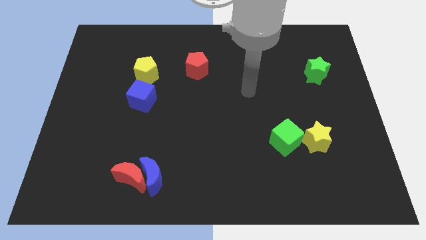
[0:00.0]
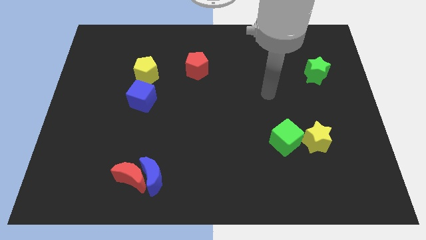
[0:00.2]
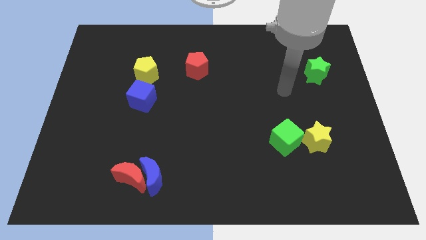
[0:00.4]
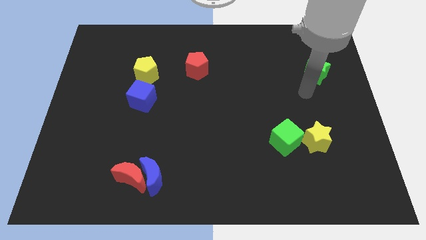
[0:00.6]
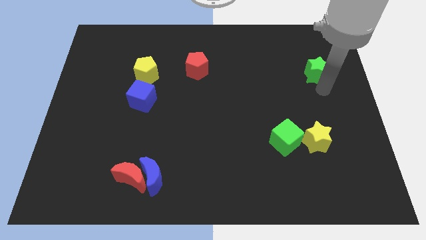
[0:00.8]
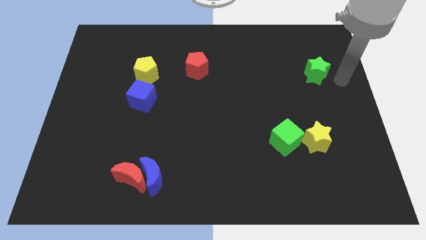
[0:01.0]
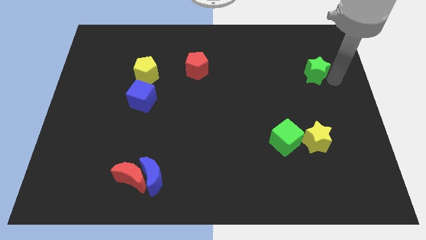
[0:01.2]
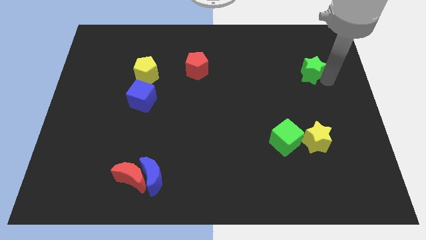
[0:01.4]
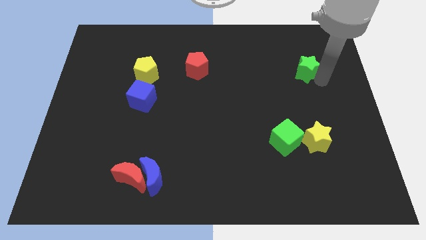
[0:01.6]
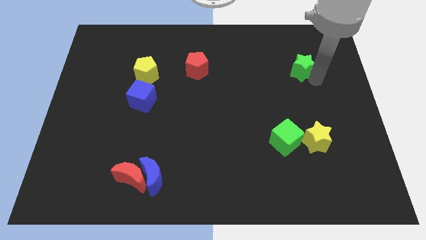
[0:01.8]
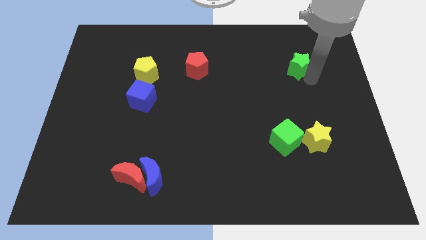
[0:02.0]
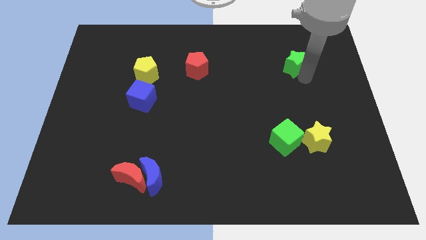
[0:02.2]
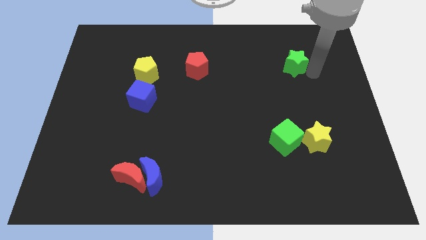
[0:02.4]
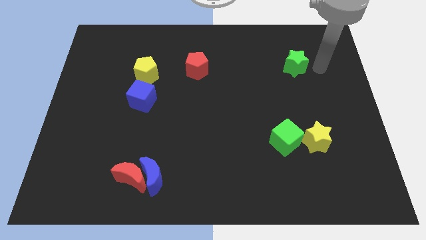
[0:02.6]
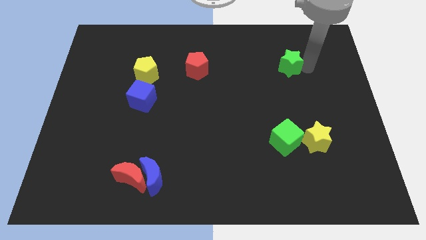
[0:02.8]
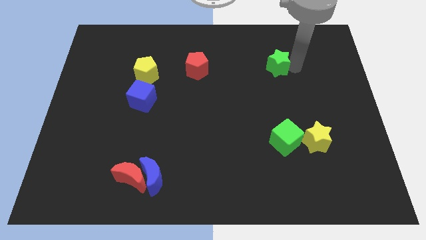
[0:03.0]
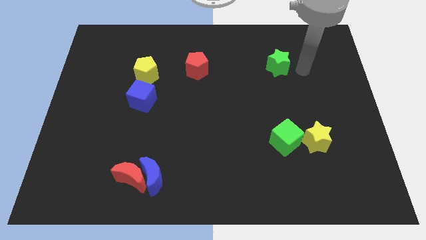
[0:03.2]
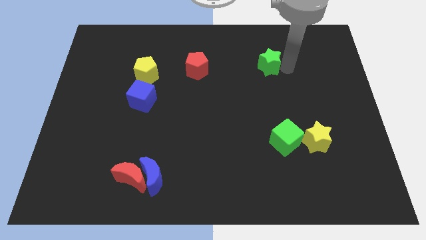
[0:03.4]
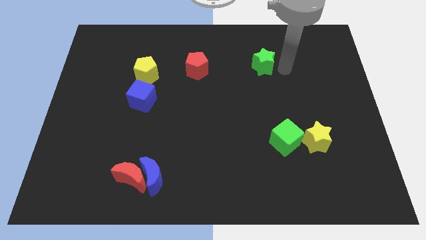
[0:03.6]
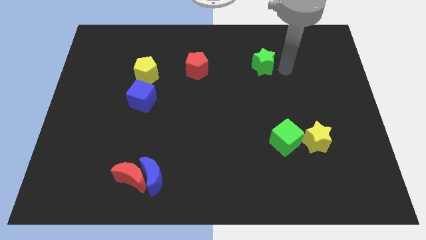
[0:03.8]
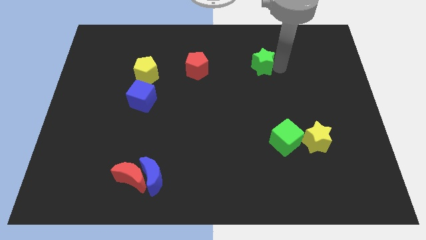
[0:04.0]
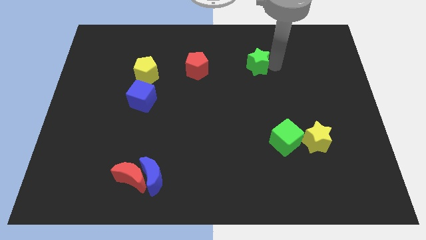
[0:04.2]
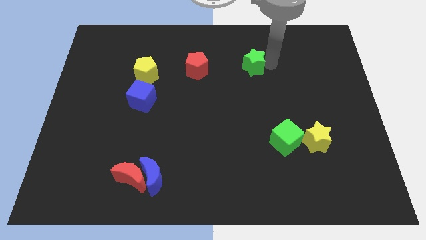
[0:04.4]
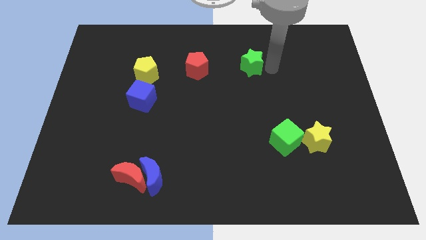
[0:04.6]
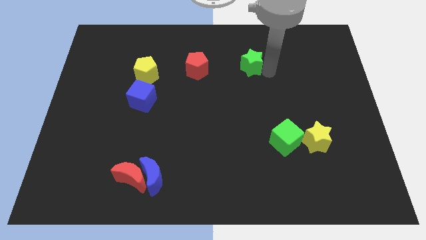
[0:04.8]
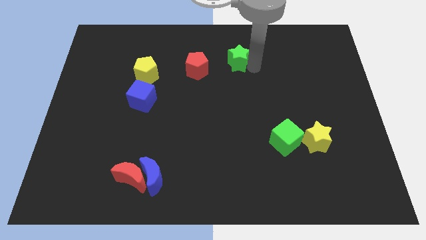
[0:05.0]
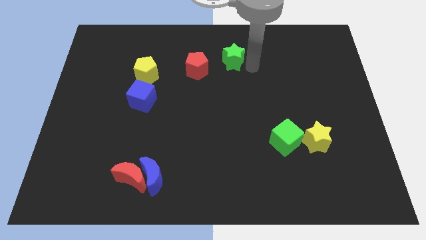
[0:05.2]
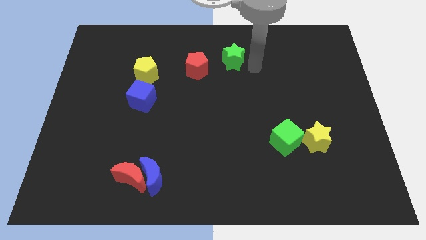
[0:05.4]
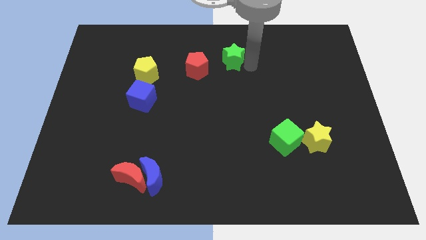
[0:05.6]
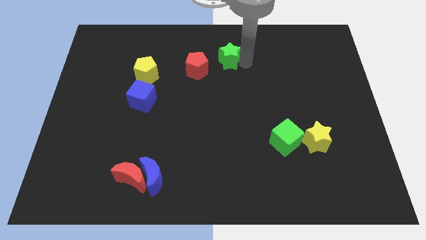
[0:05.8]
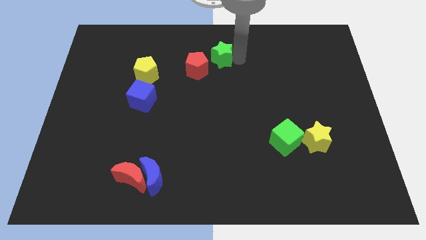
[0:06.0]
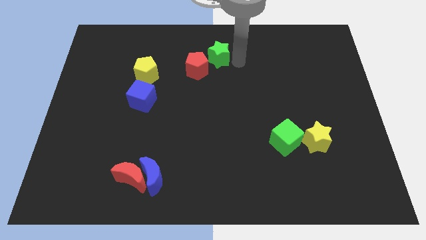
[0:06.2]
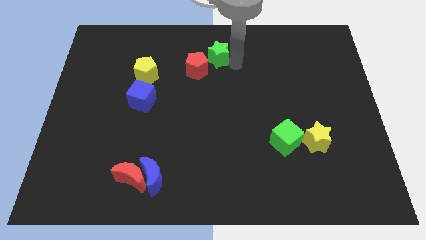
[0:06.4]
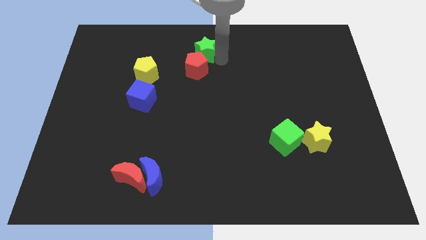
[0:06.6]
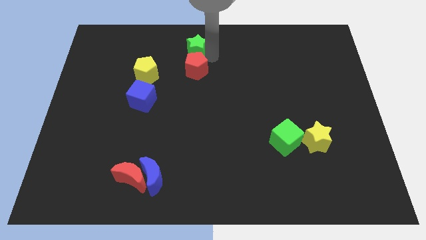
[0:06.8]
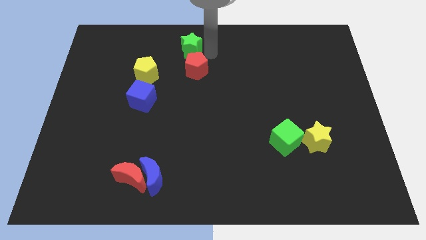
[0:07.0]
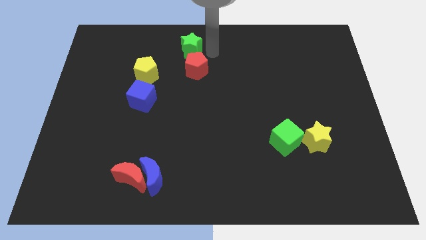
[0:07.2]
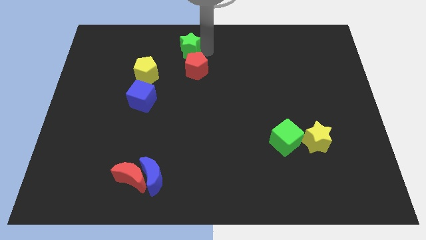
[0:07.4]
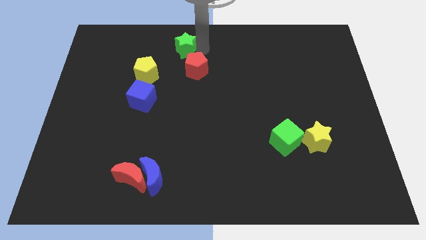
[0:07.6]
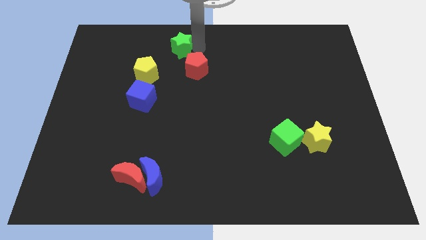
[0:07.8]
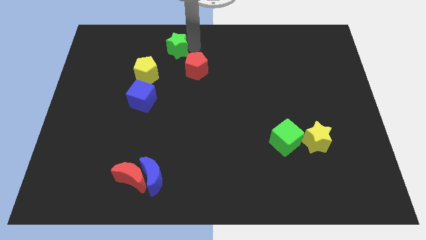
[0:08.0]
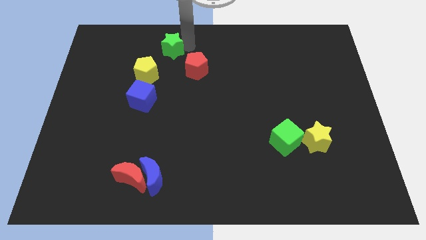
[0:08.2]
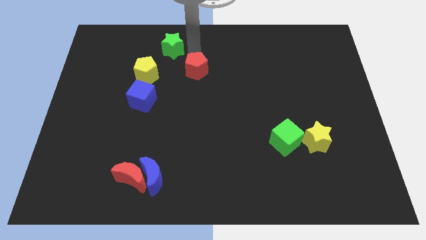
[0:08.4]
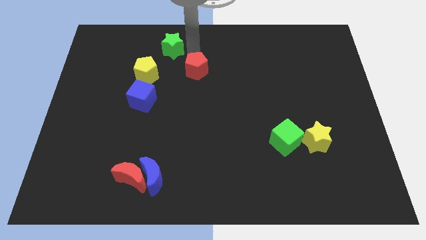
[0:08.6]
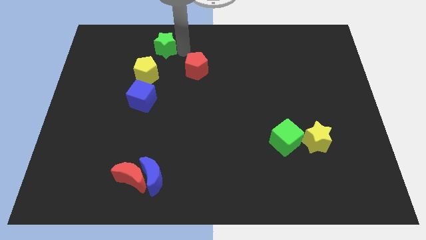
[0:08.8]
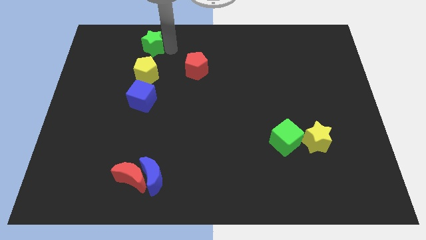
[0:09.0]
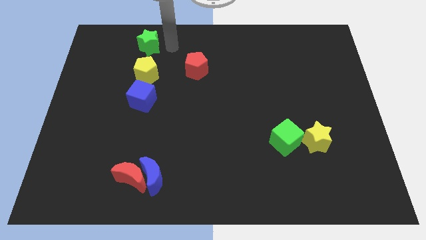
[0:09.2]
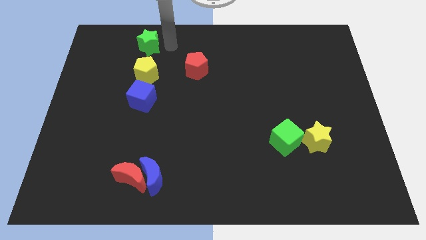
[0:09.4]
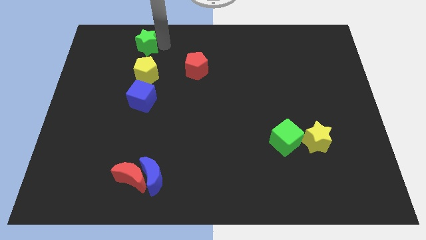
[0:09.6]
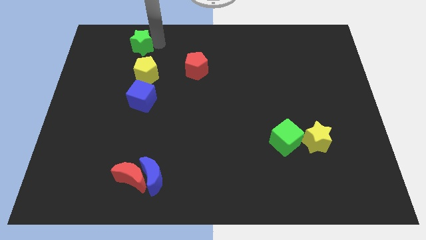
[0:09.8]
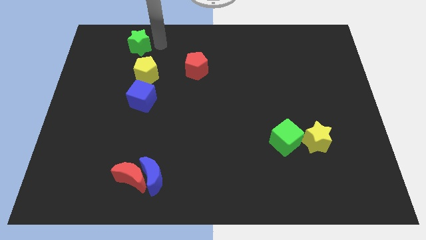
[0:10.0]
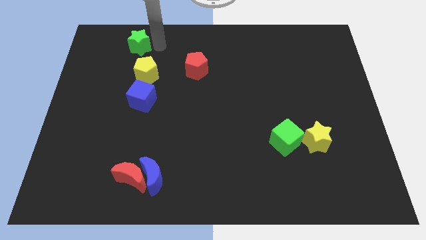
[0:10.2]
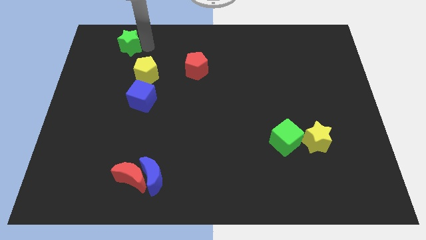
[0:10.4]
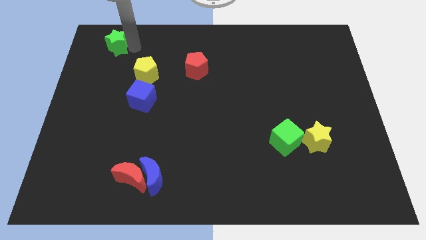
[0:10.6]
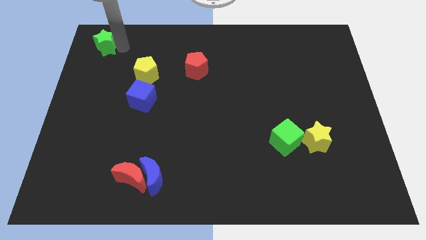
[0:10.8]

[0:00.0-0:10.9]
push the green star to the top left

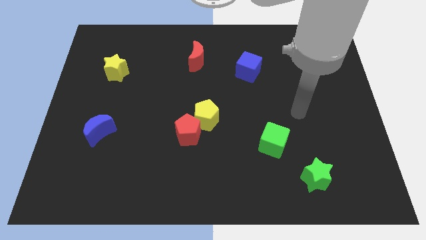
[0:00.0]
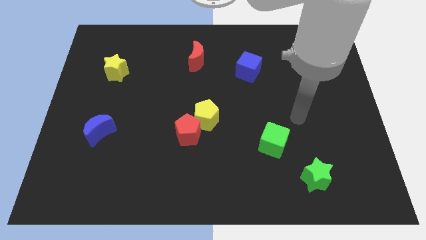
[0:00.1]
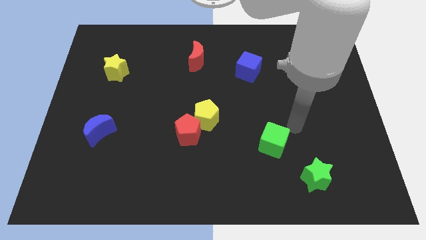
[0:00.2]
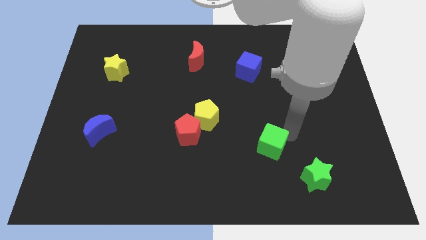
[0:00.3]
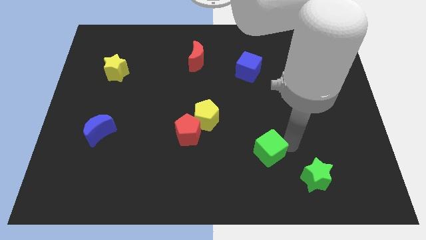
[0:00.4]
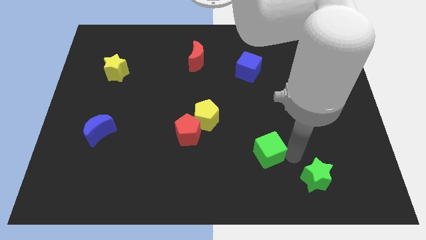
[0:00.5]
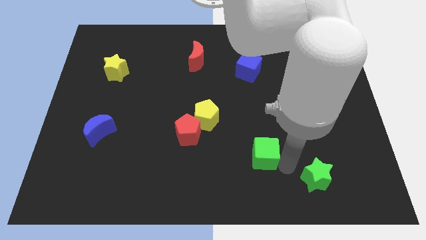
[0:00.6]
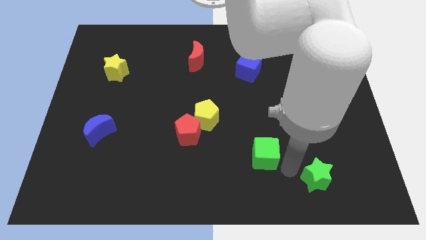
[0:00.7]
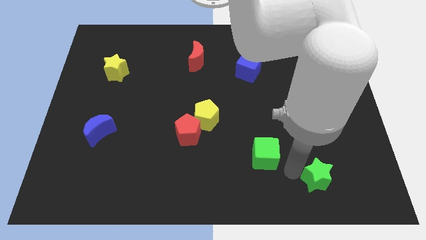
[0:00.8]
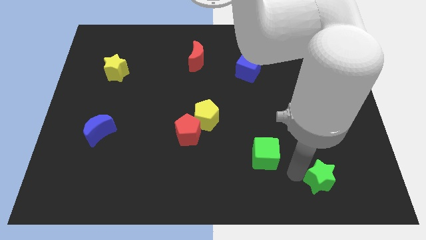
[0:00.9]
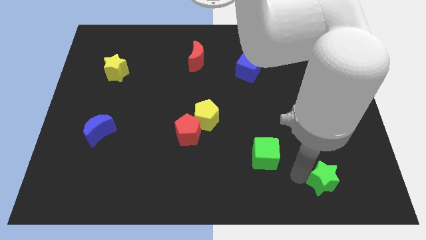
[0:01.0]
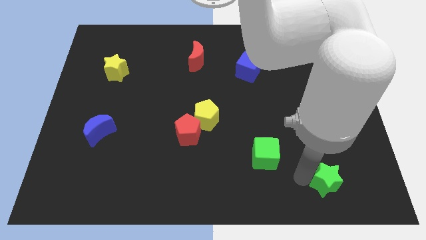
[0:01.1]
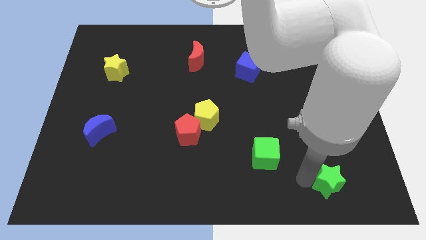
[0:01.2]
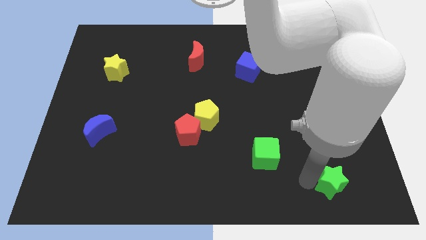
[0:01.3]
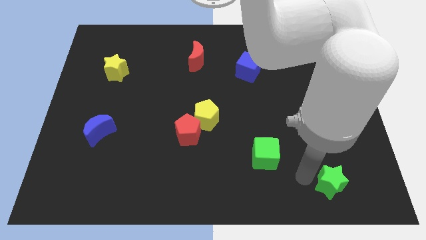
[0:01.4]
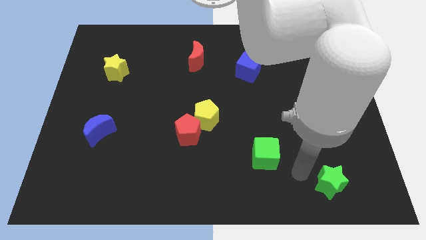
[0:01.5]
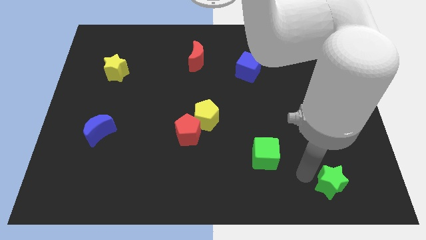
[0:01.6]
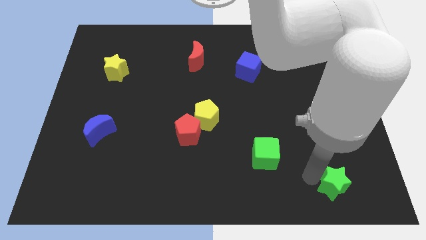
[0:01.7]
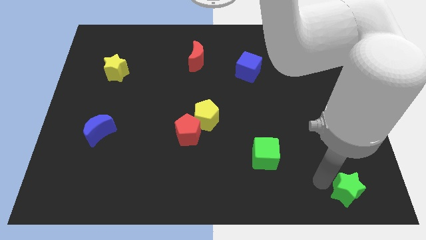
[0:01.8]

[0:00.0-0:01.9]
slide the green star to the bottom right of the board
